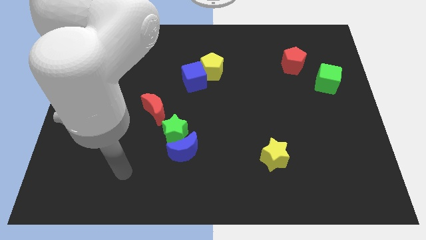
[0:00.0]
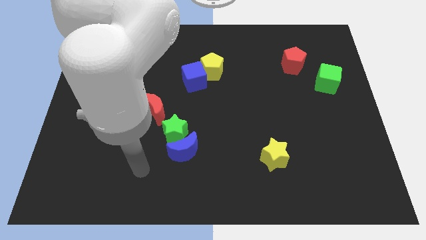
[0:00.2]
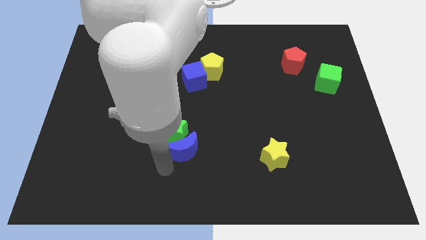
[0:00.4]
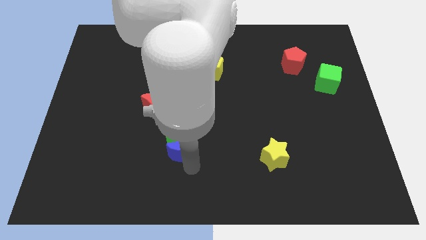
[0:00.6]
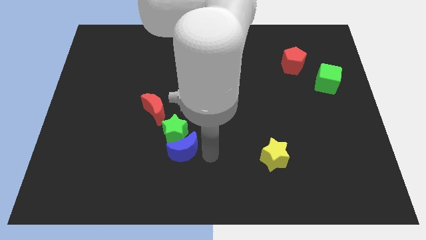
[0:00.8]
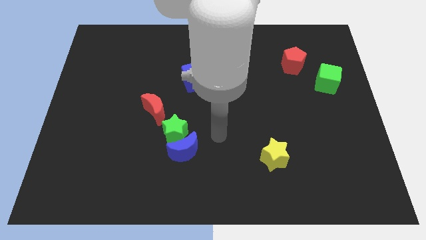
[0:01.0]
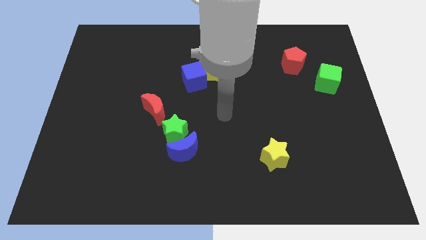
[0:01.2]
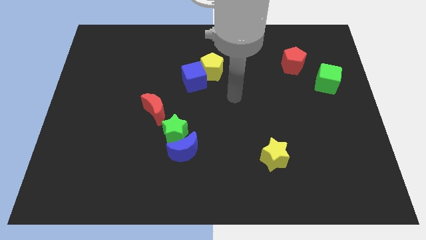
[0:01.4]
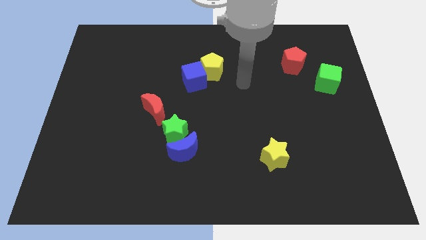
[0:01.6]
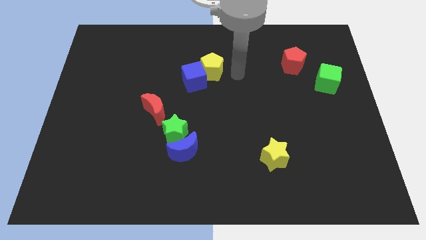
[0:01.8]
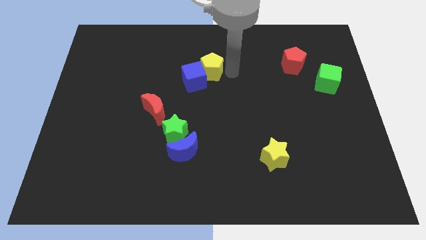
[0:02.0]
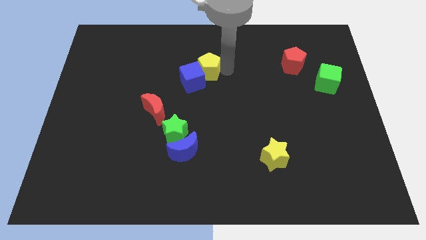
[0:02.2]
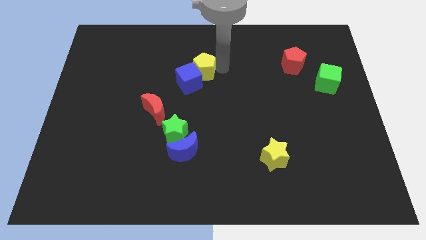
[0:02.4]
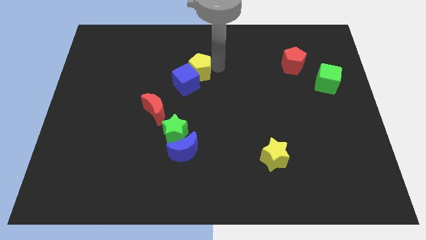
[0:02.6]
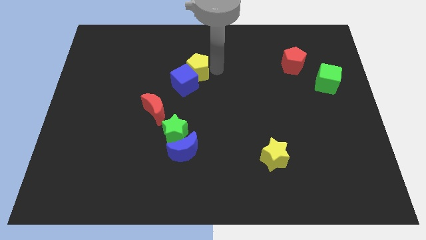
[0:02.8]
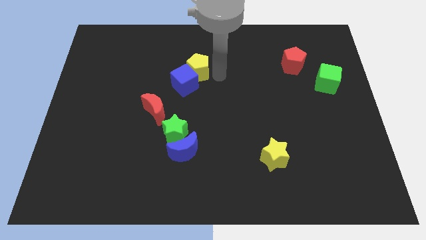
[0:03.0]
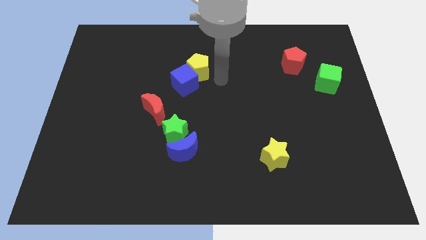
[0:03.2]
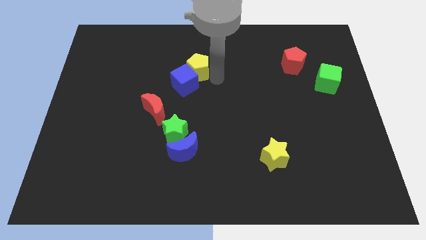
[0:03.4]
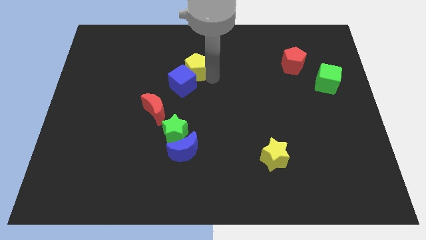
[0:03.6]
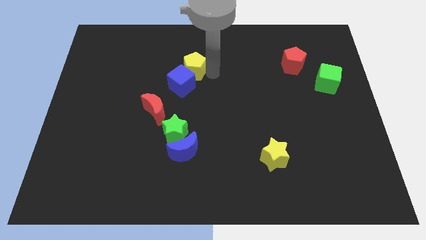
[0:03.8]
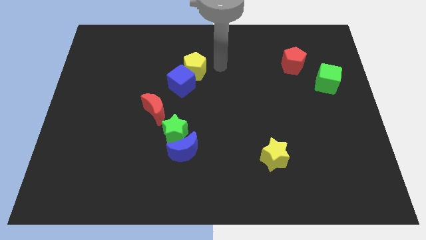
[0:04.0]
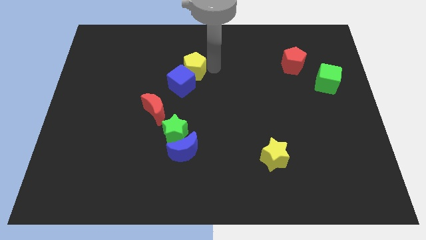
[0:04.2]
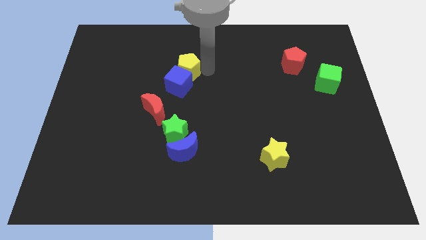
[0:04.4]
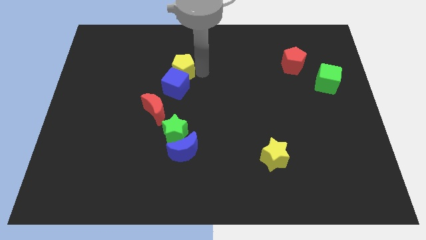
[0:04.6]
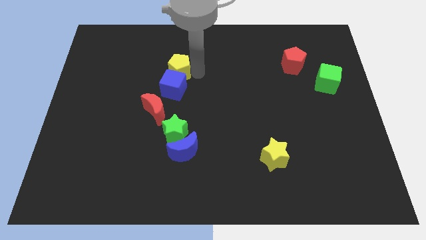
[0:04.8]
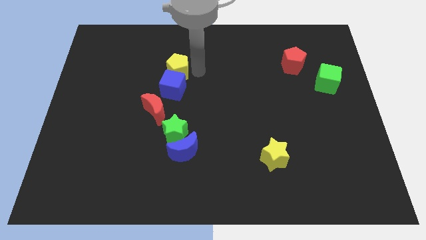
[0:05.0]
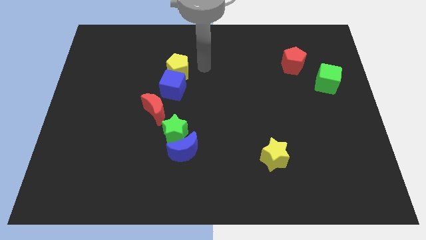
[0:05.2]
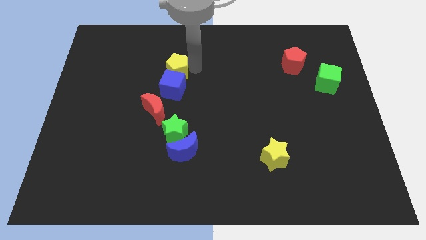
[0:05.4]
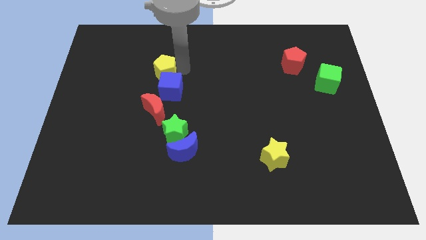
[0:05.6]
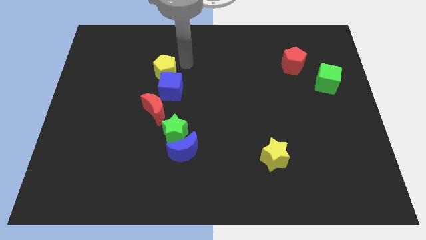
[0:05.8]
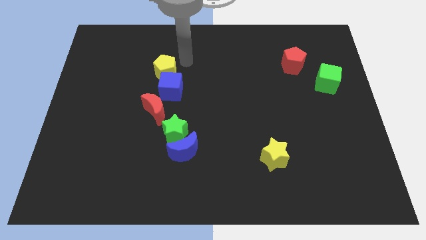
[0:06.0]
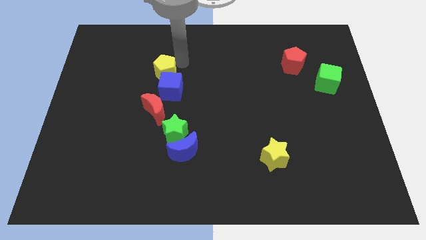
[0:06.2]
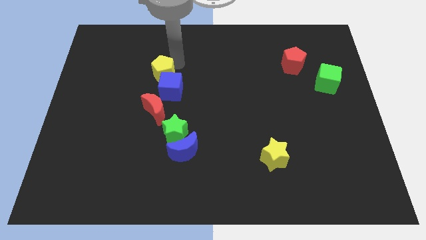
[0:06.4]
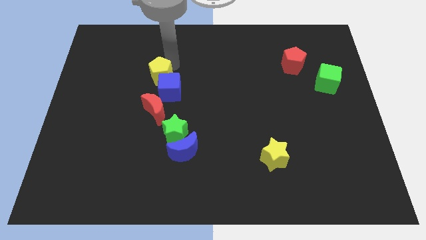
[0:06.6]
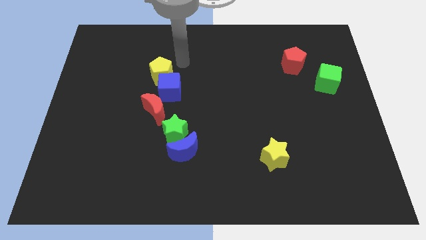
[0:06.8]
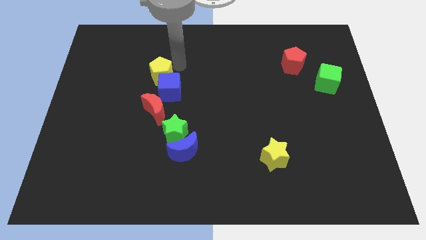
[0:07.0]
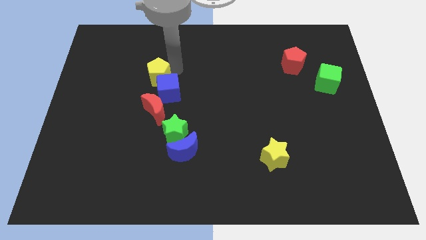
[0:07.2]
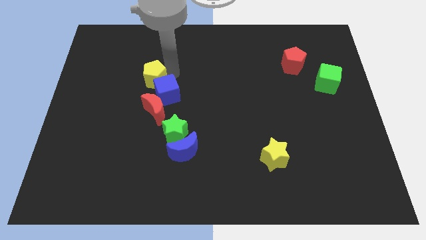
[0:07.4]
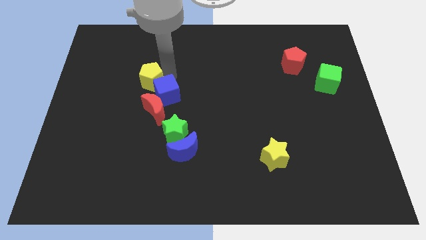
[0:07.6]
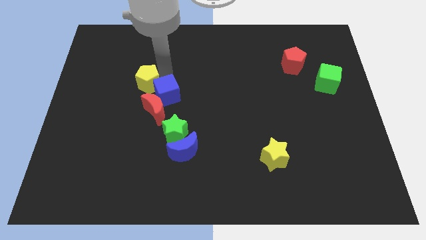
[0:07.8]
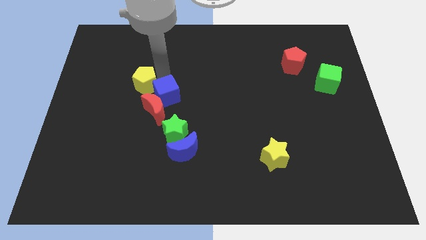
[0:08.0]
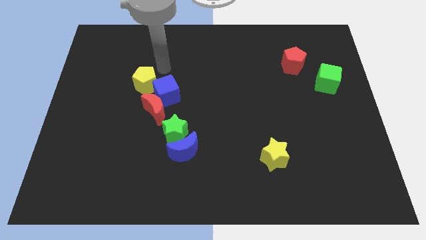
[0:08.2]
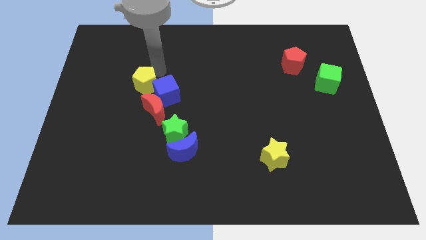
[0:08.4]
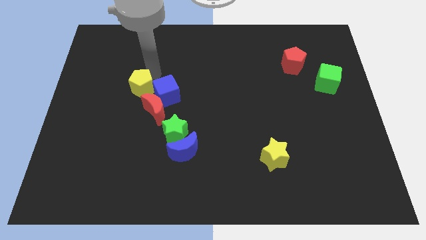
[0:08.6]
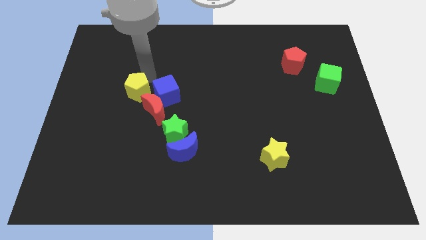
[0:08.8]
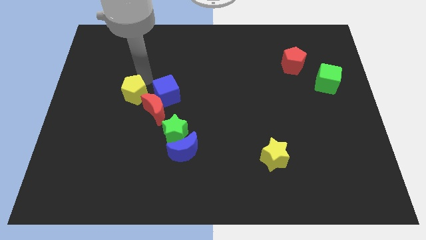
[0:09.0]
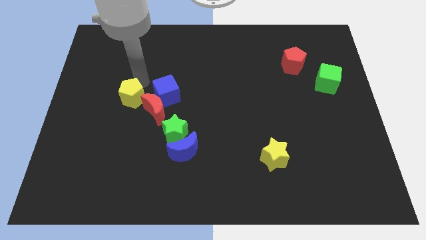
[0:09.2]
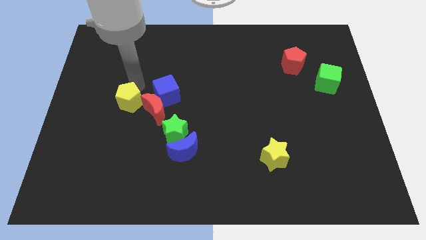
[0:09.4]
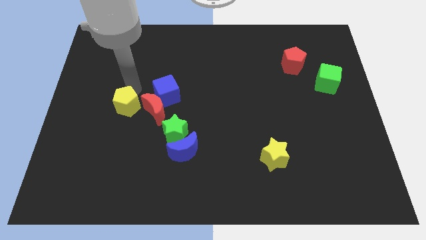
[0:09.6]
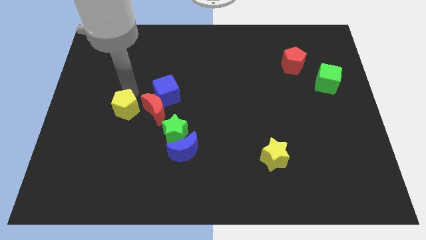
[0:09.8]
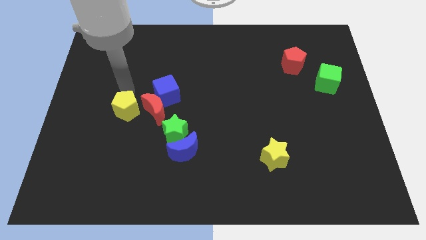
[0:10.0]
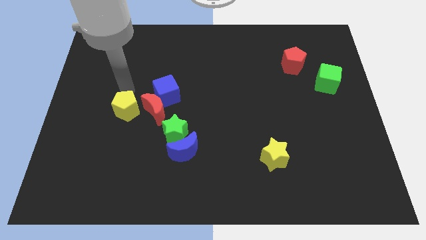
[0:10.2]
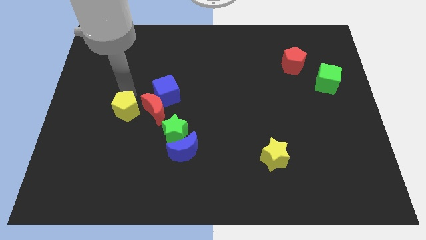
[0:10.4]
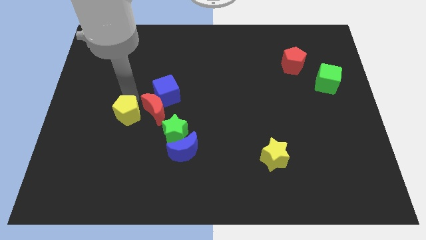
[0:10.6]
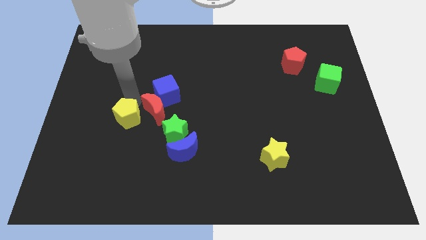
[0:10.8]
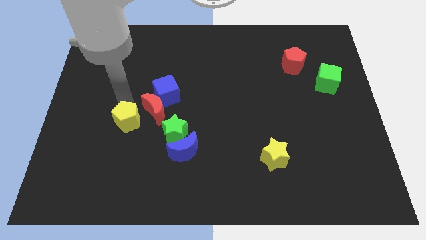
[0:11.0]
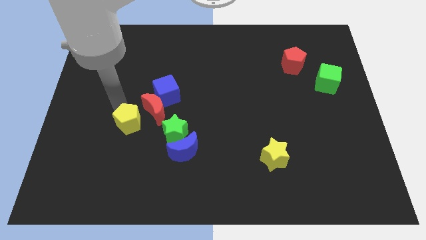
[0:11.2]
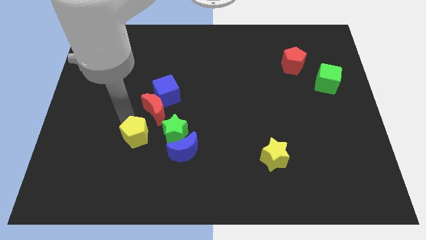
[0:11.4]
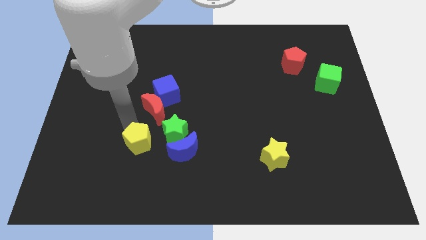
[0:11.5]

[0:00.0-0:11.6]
move the yellow pentagon to the bottom left of the green star

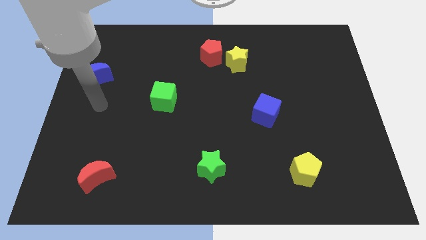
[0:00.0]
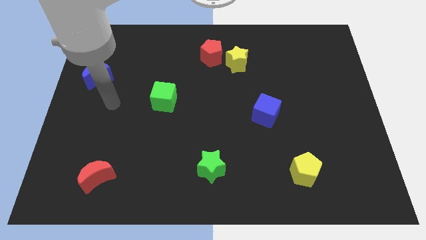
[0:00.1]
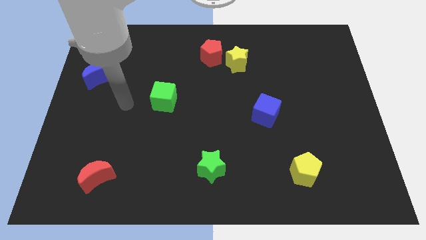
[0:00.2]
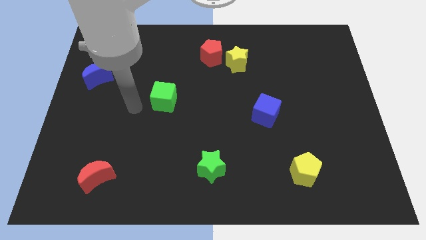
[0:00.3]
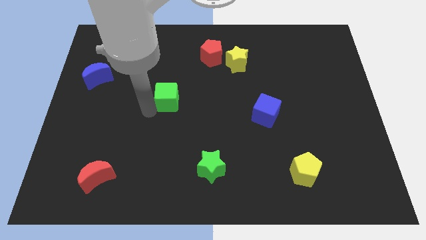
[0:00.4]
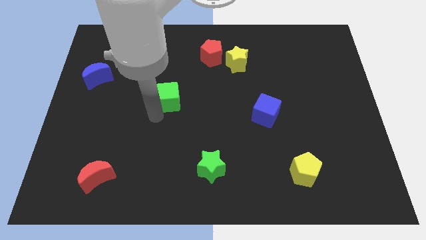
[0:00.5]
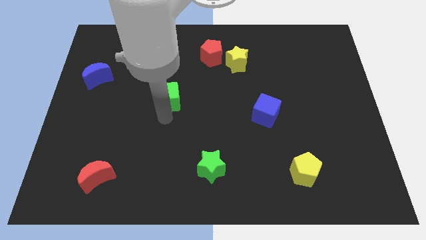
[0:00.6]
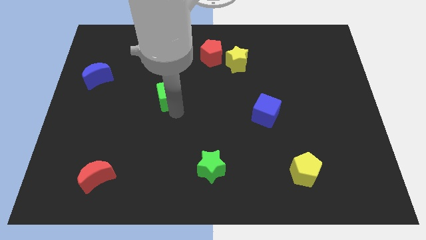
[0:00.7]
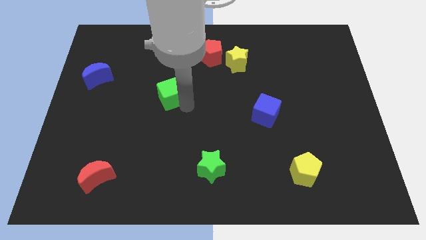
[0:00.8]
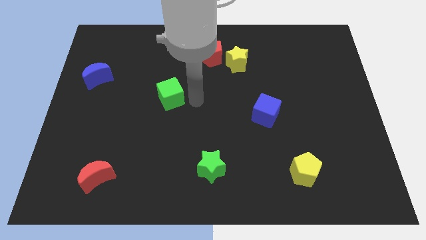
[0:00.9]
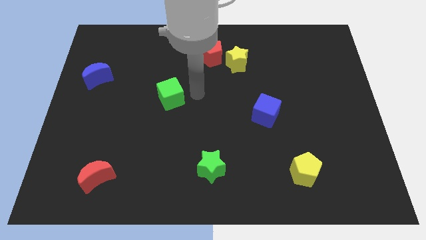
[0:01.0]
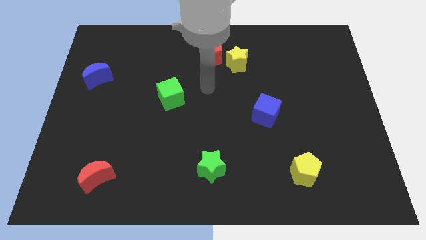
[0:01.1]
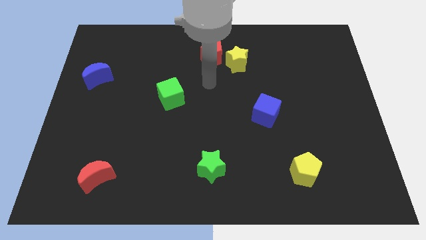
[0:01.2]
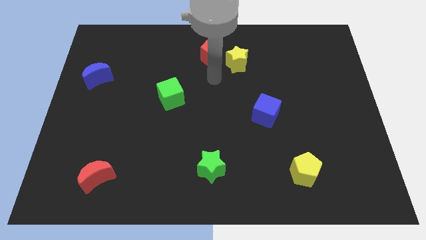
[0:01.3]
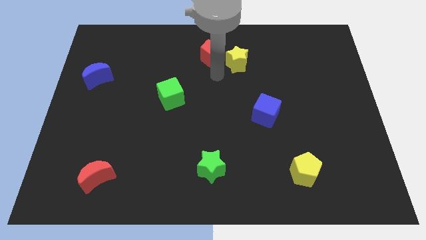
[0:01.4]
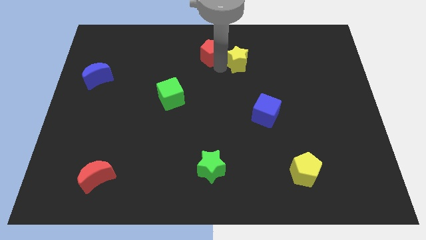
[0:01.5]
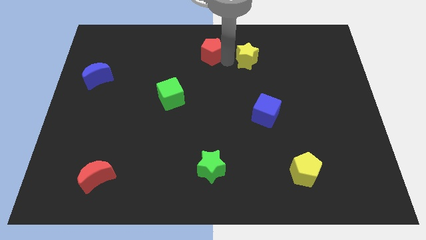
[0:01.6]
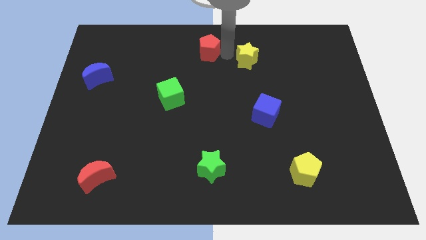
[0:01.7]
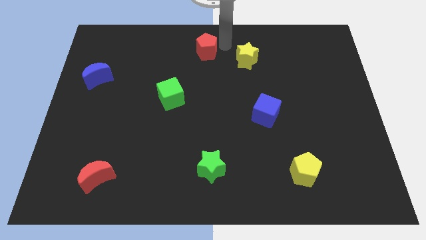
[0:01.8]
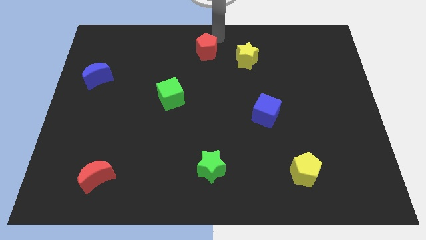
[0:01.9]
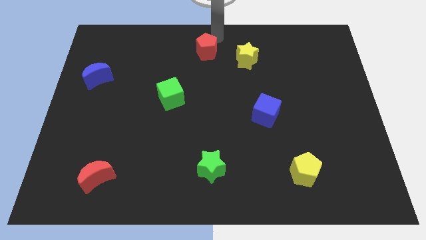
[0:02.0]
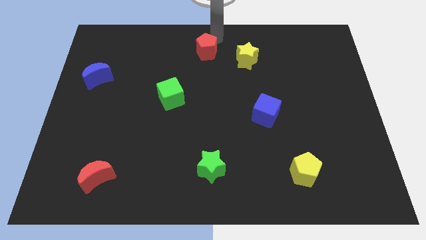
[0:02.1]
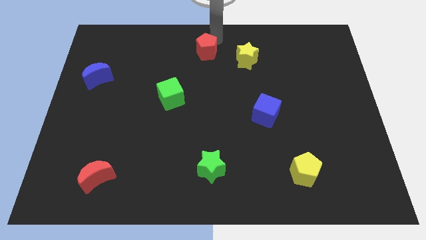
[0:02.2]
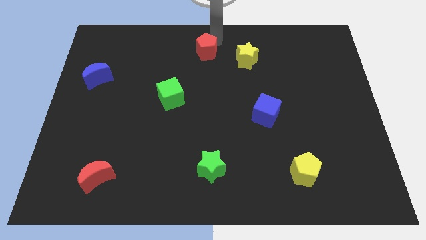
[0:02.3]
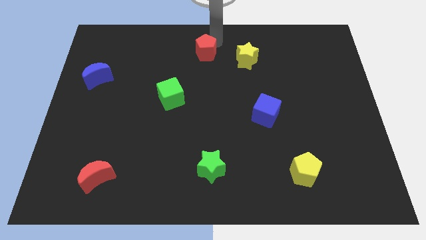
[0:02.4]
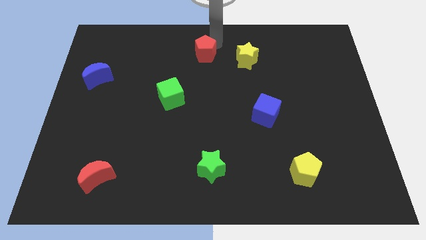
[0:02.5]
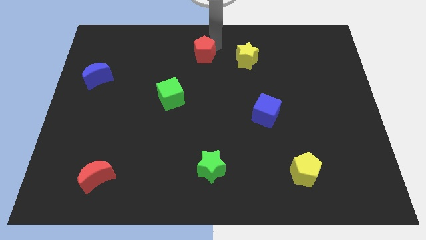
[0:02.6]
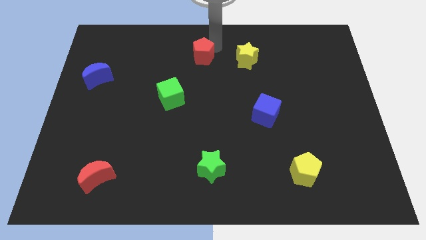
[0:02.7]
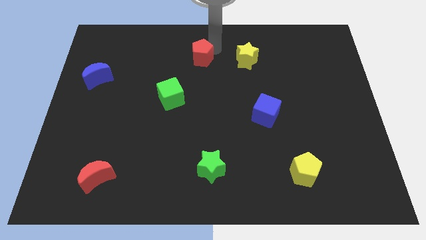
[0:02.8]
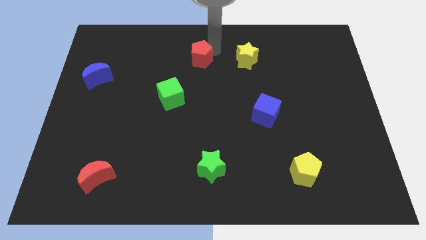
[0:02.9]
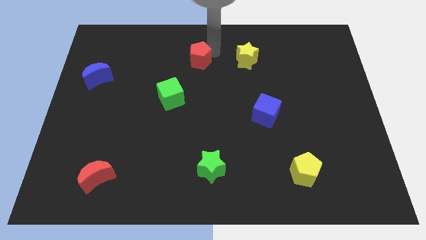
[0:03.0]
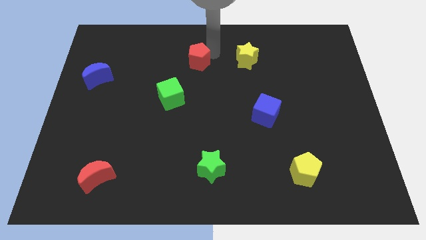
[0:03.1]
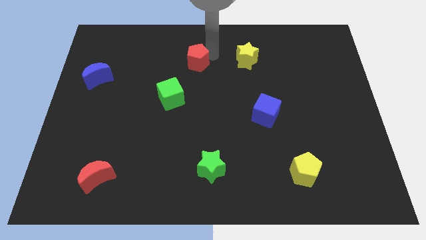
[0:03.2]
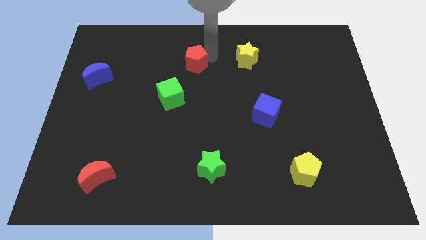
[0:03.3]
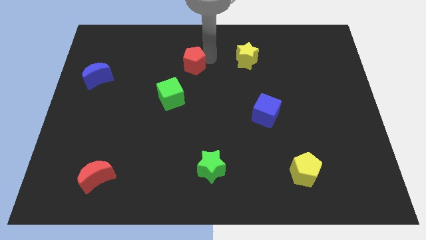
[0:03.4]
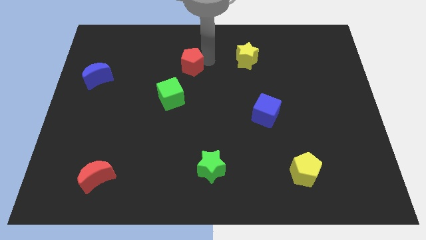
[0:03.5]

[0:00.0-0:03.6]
slide the red pentagon above the green cube
